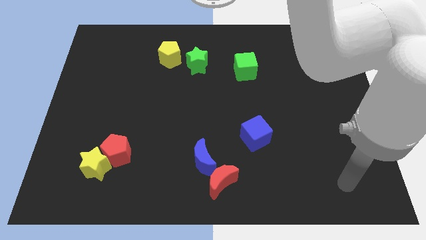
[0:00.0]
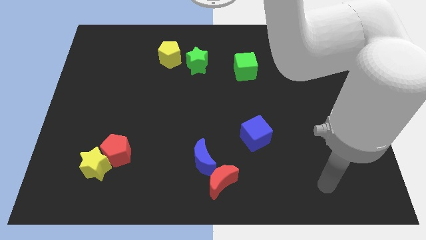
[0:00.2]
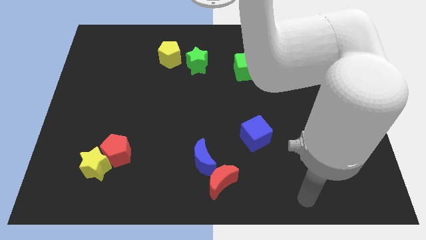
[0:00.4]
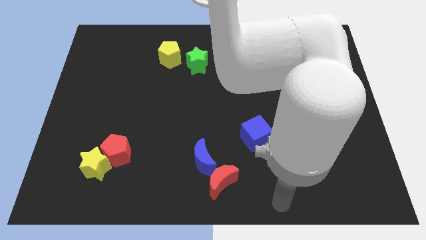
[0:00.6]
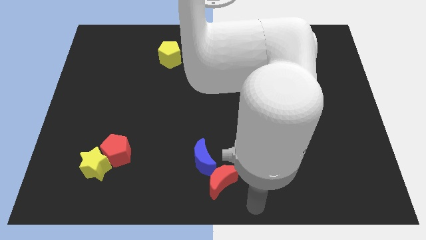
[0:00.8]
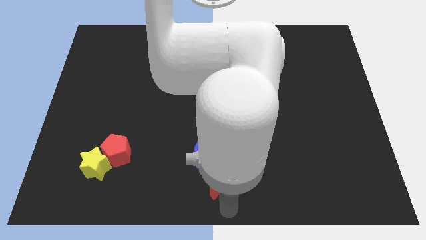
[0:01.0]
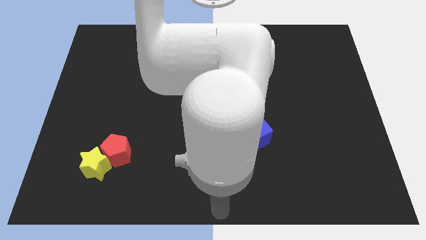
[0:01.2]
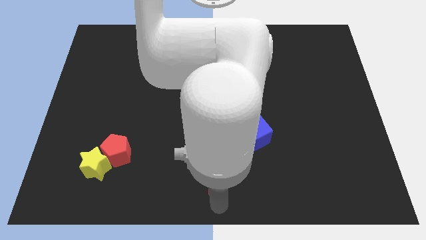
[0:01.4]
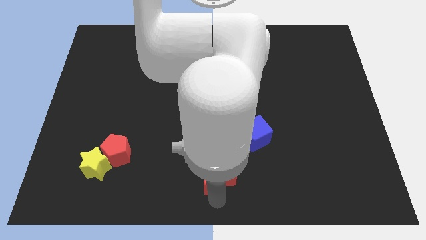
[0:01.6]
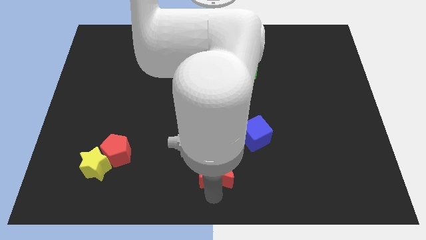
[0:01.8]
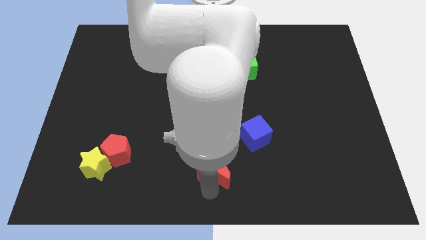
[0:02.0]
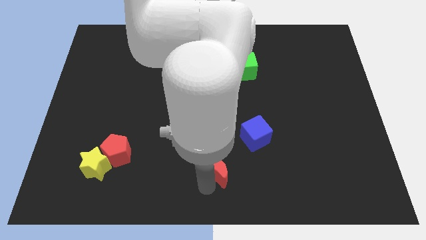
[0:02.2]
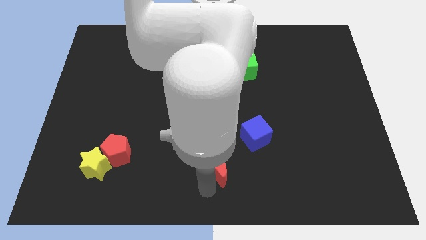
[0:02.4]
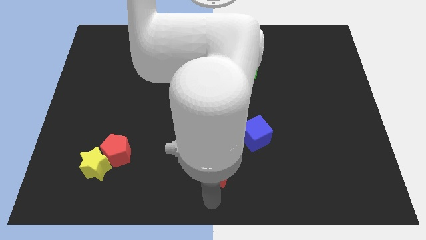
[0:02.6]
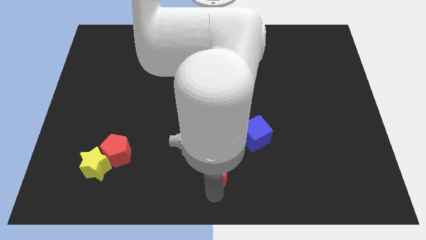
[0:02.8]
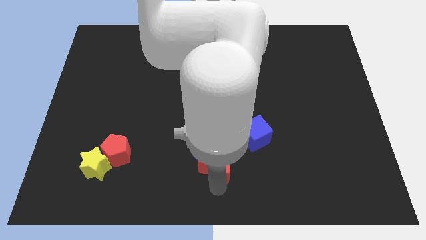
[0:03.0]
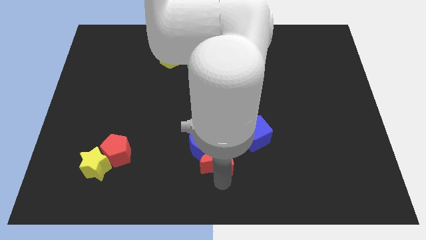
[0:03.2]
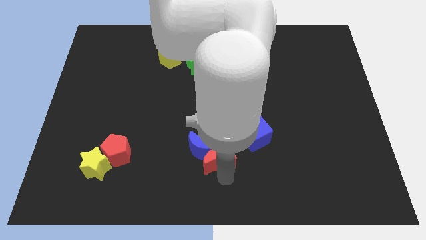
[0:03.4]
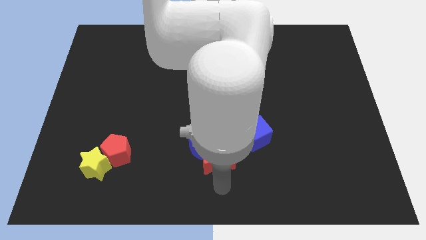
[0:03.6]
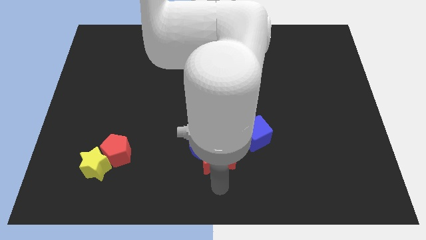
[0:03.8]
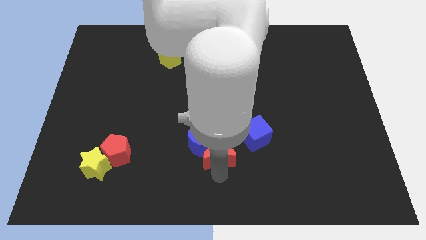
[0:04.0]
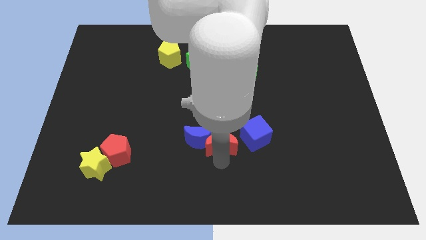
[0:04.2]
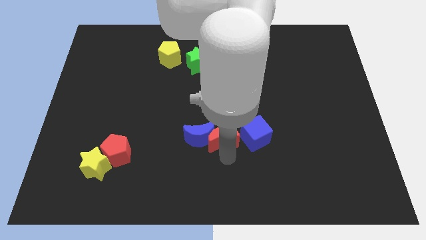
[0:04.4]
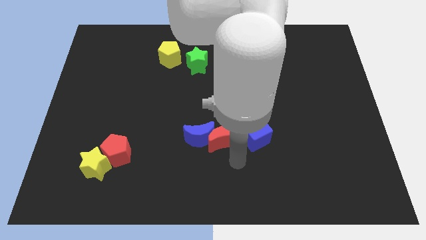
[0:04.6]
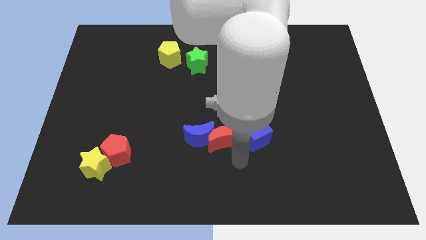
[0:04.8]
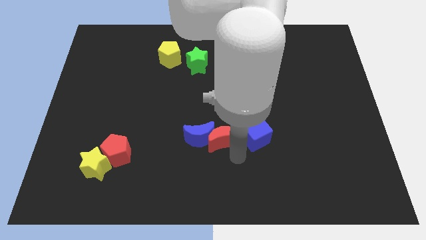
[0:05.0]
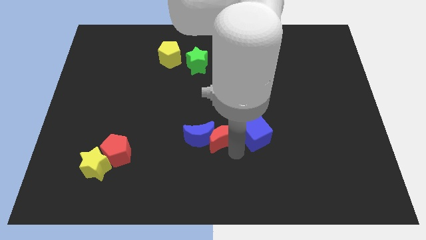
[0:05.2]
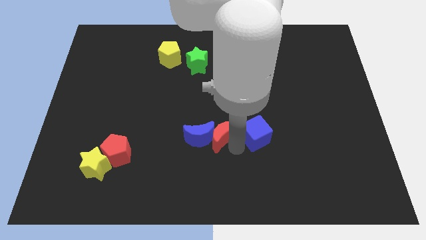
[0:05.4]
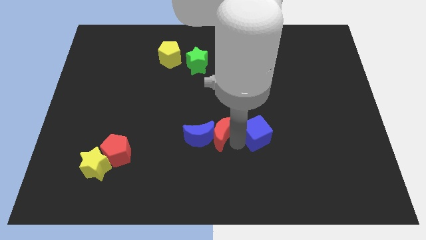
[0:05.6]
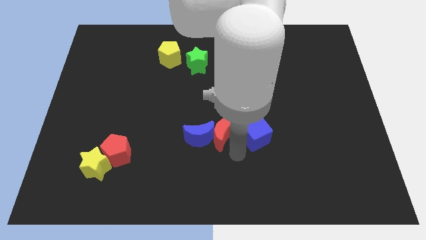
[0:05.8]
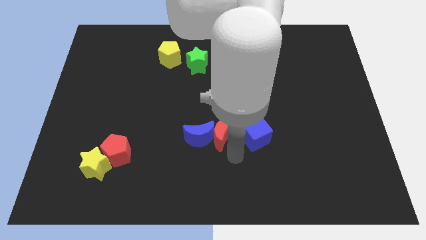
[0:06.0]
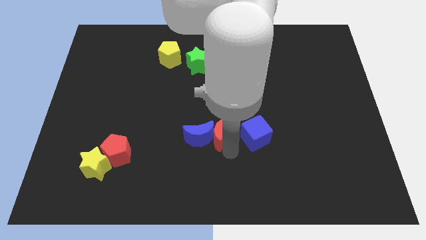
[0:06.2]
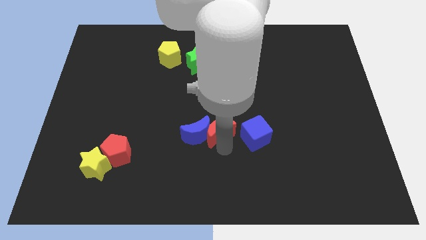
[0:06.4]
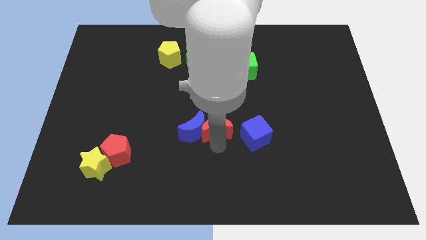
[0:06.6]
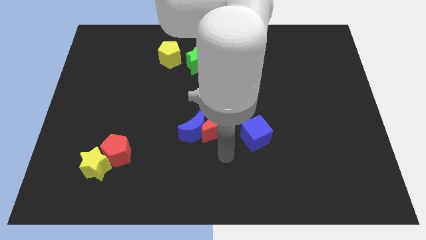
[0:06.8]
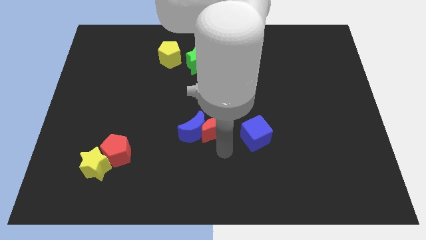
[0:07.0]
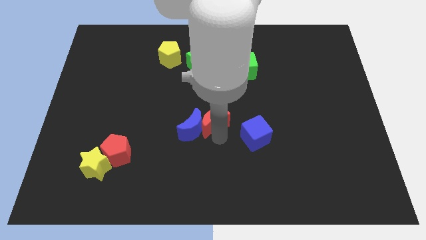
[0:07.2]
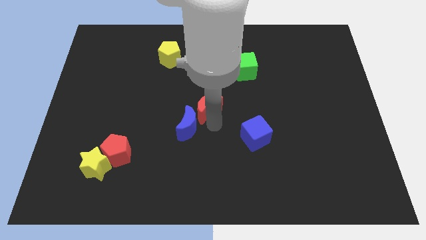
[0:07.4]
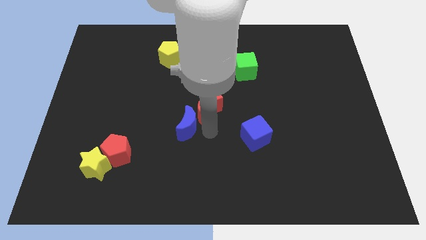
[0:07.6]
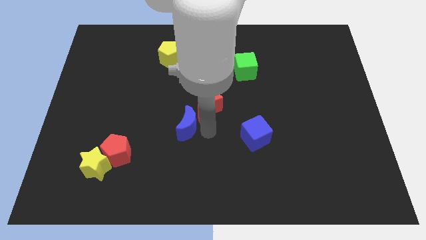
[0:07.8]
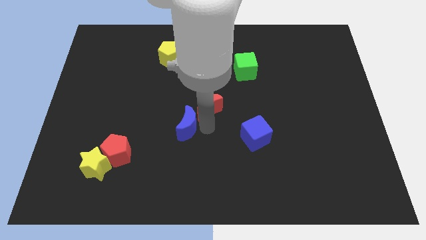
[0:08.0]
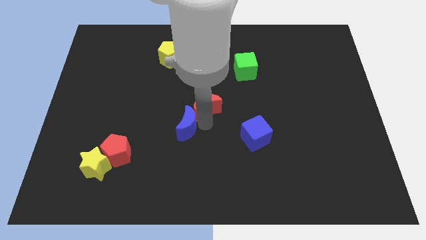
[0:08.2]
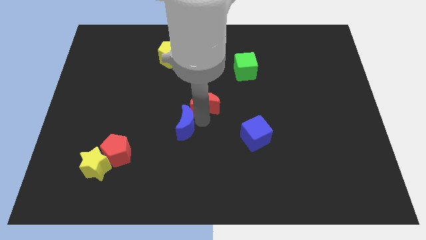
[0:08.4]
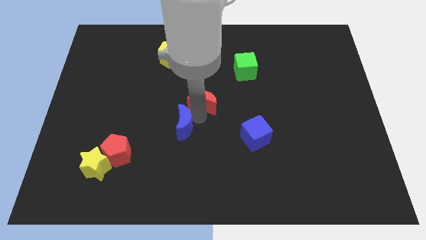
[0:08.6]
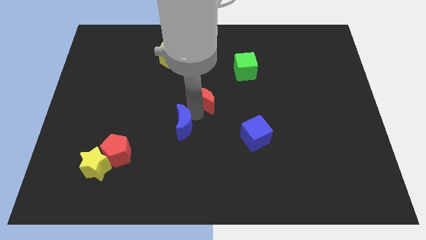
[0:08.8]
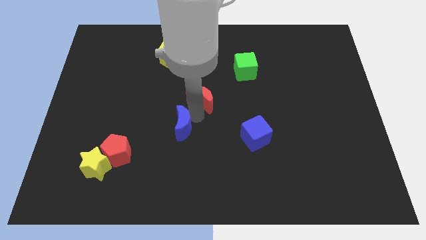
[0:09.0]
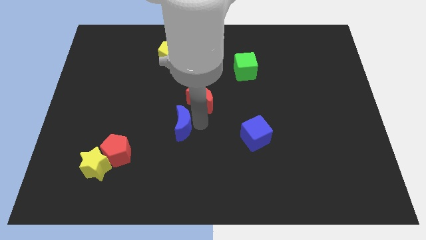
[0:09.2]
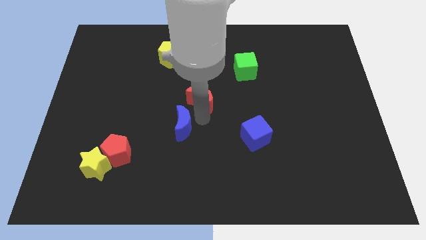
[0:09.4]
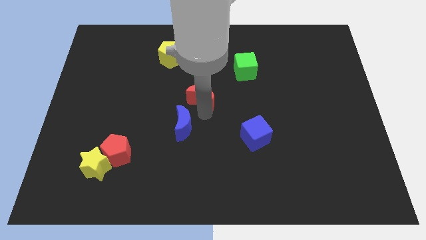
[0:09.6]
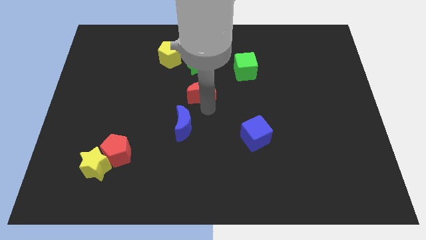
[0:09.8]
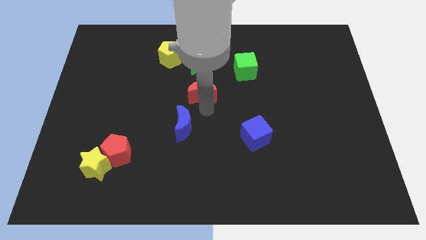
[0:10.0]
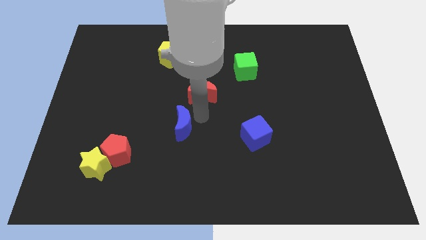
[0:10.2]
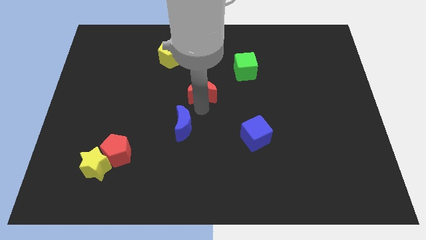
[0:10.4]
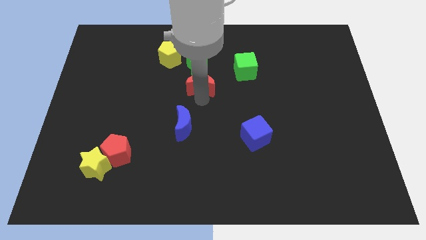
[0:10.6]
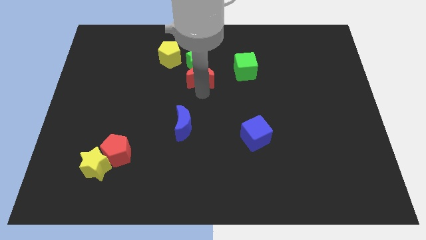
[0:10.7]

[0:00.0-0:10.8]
push the red moon to the green star

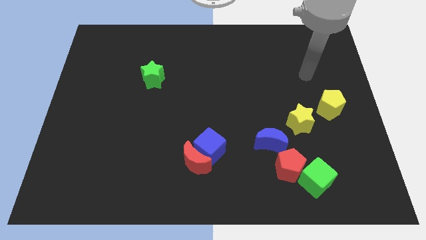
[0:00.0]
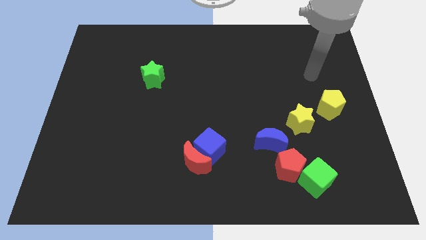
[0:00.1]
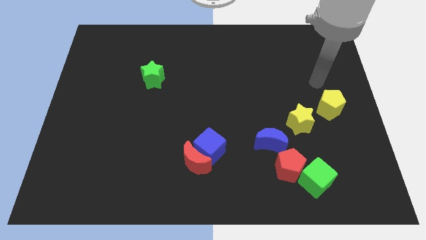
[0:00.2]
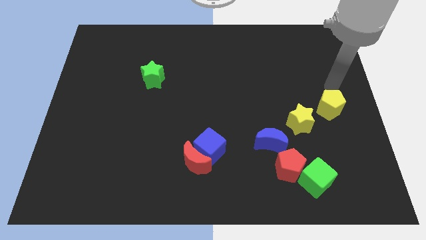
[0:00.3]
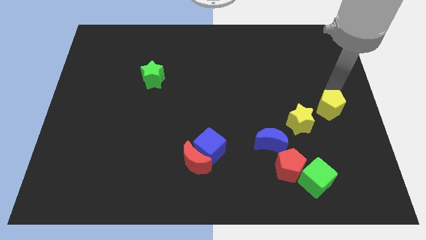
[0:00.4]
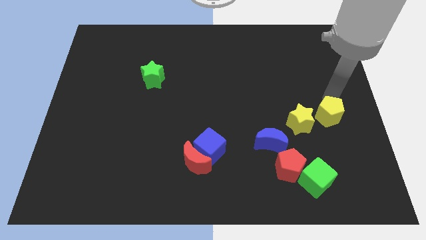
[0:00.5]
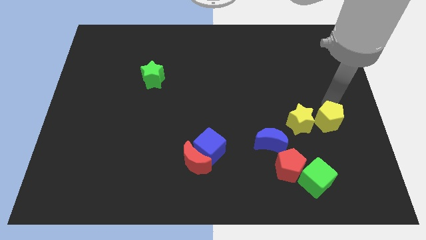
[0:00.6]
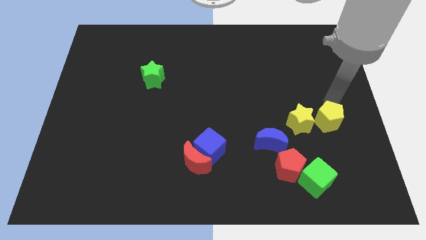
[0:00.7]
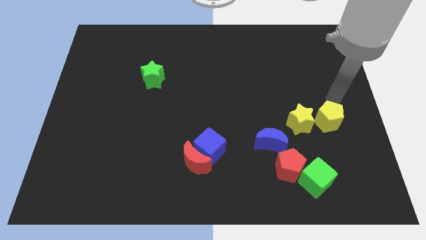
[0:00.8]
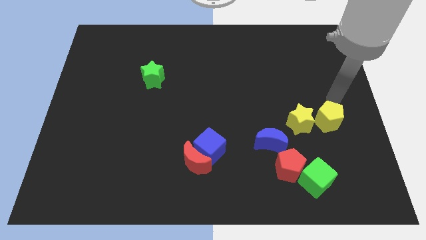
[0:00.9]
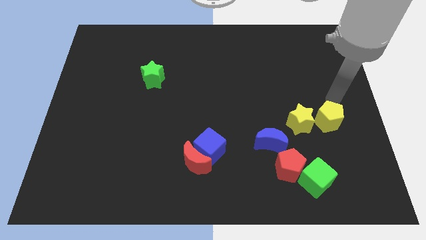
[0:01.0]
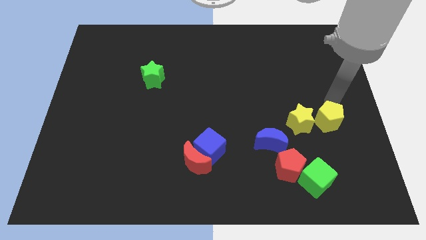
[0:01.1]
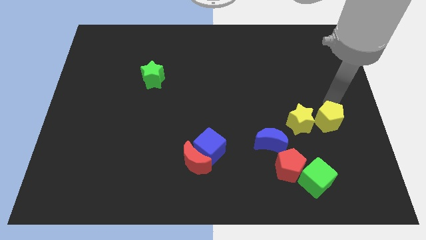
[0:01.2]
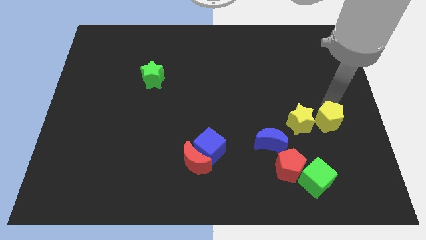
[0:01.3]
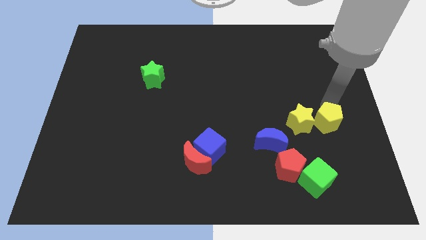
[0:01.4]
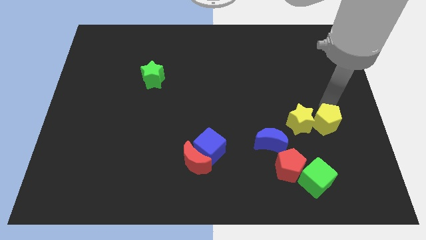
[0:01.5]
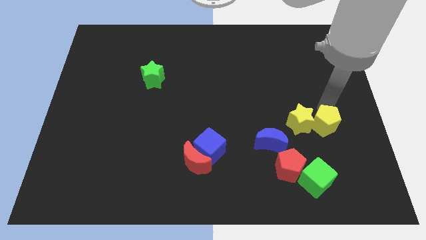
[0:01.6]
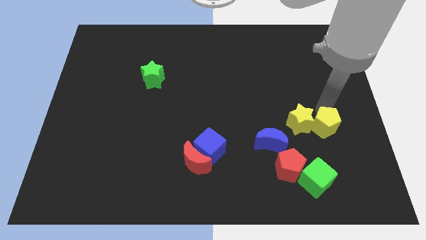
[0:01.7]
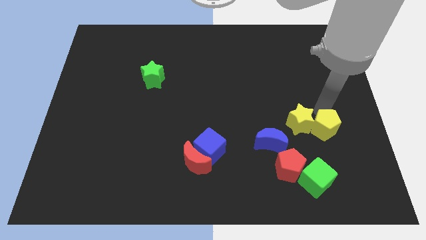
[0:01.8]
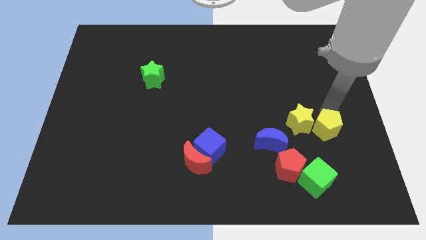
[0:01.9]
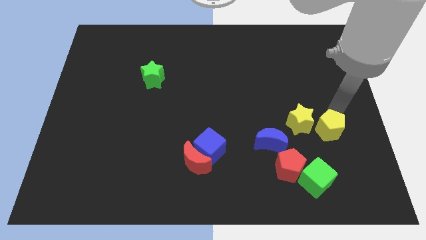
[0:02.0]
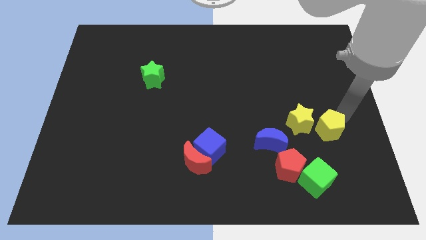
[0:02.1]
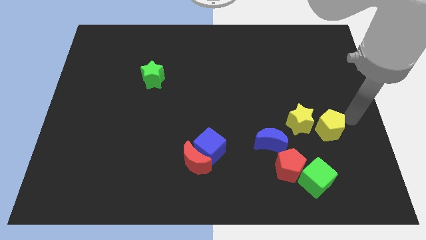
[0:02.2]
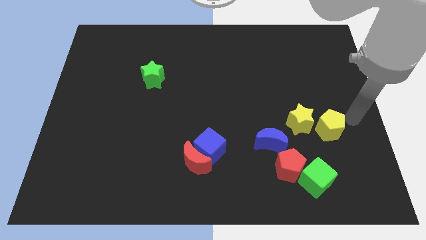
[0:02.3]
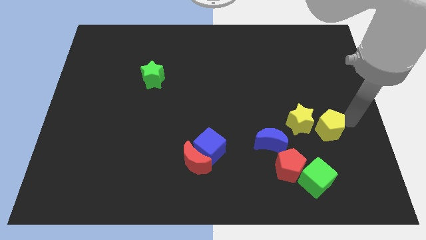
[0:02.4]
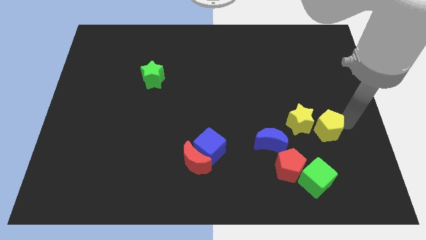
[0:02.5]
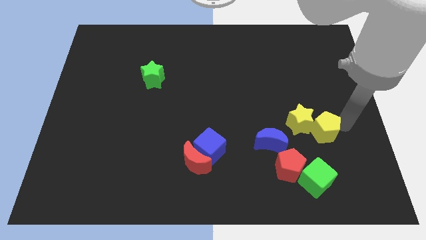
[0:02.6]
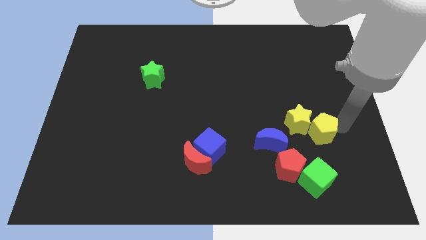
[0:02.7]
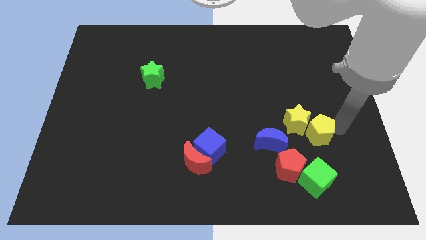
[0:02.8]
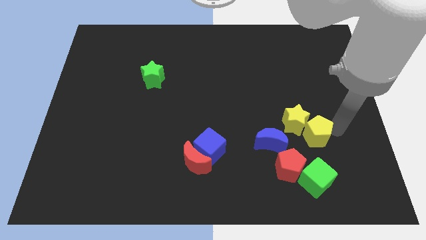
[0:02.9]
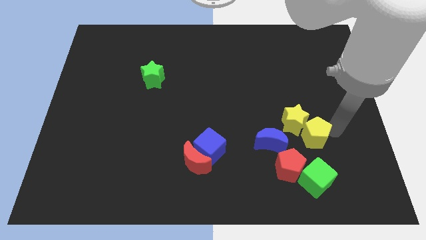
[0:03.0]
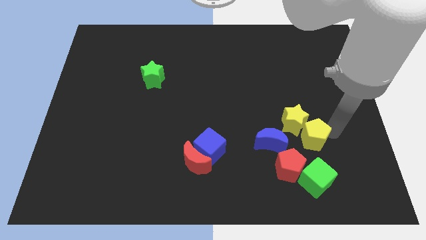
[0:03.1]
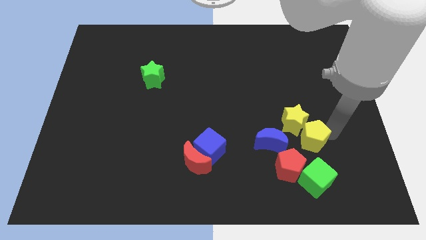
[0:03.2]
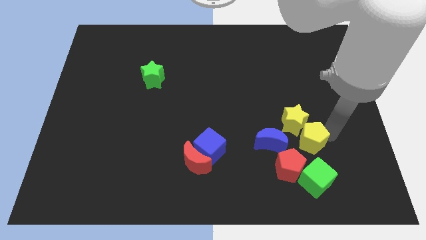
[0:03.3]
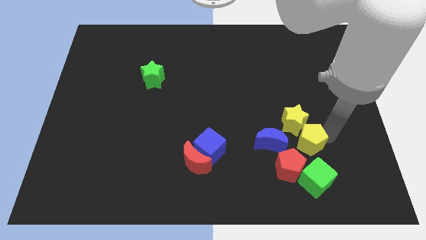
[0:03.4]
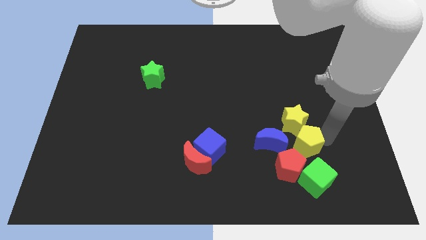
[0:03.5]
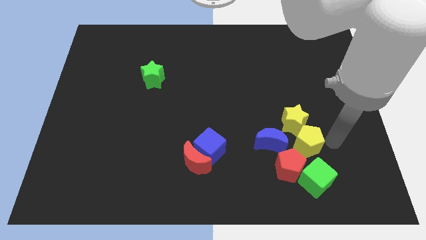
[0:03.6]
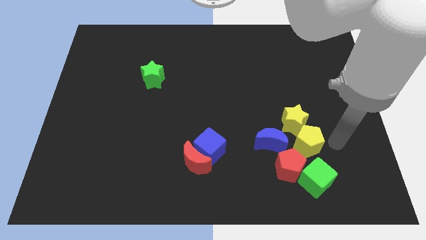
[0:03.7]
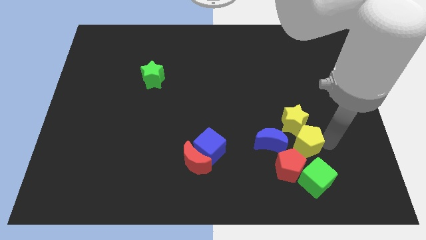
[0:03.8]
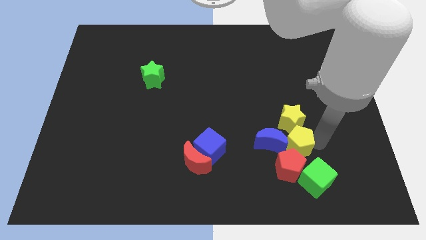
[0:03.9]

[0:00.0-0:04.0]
slide the yellow pentagon next to the blue moon
